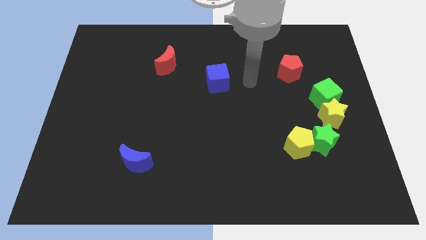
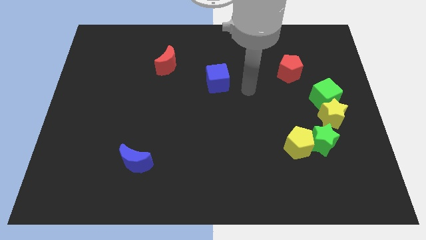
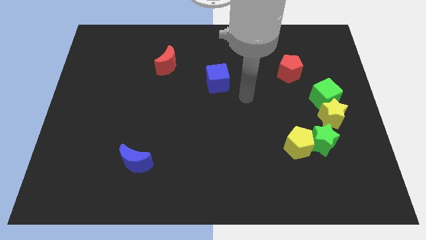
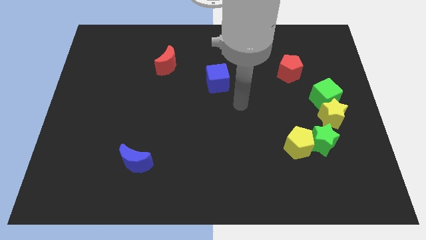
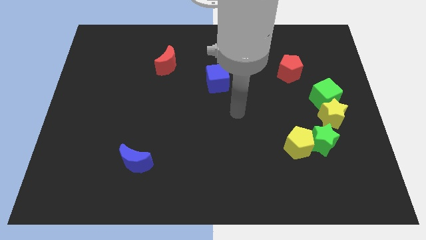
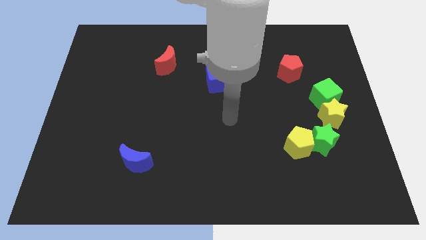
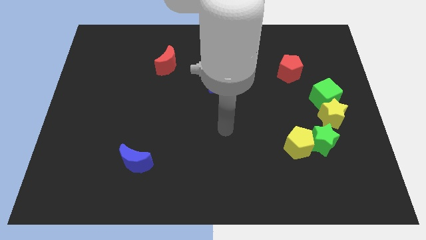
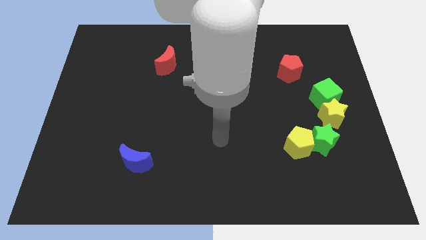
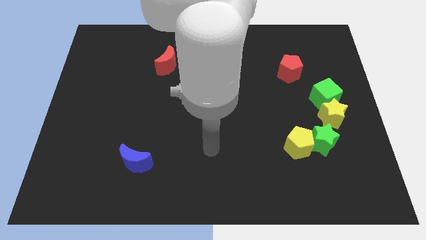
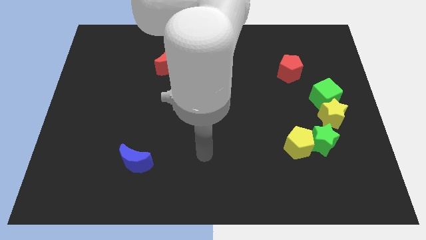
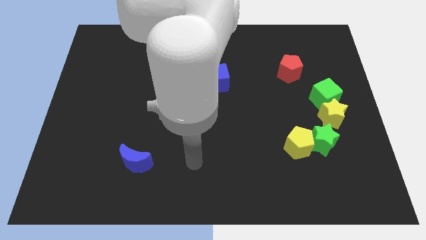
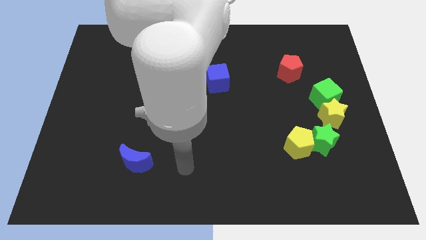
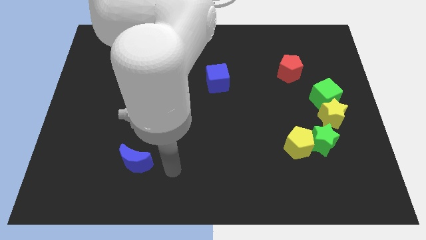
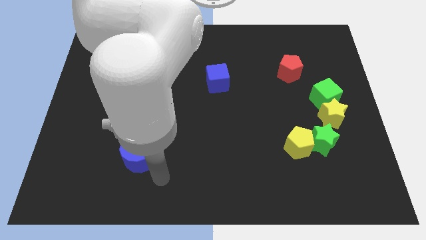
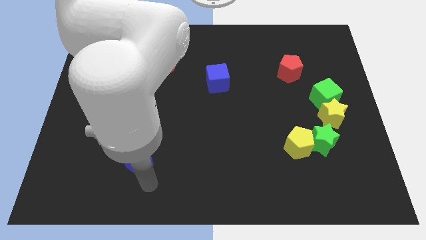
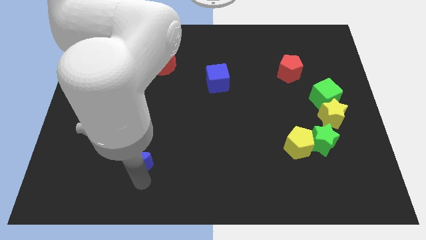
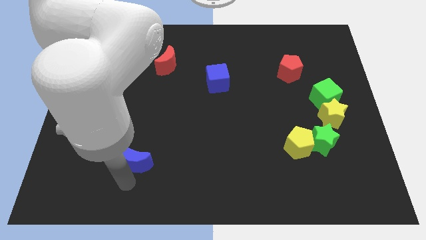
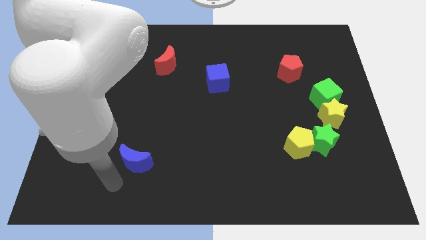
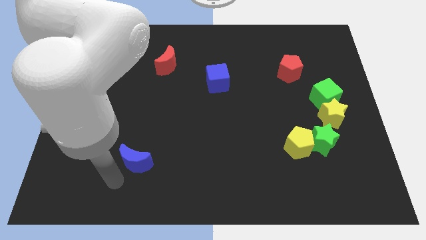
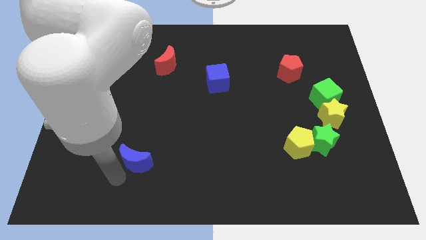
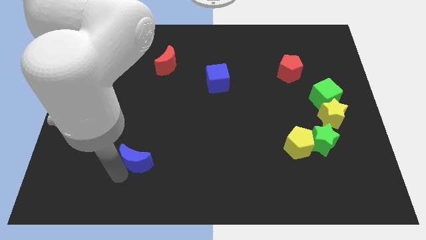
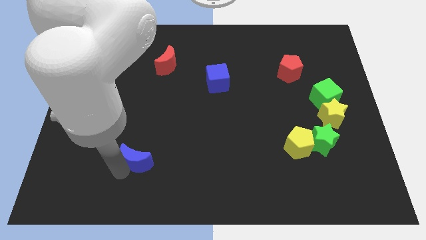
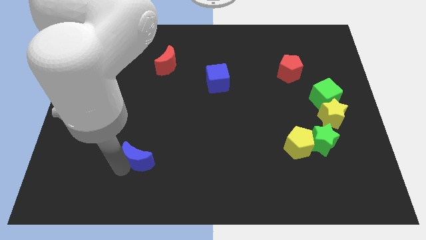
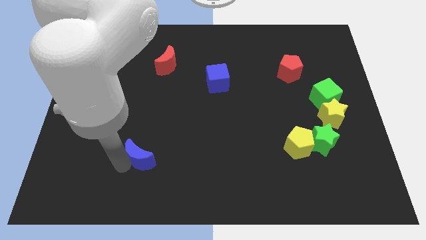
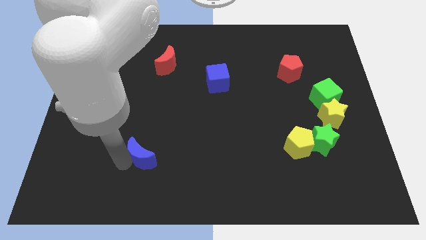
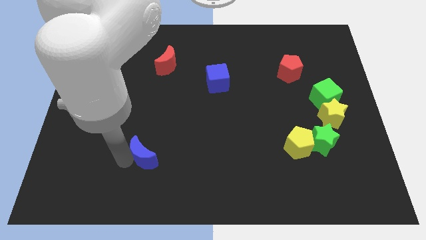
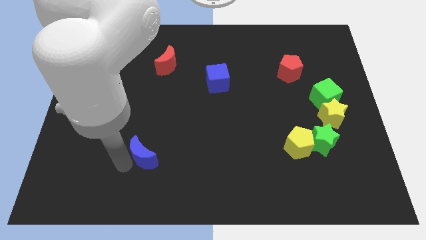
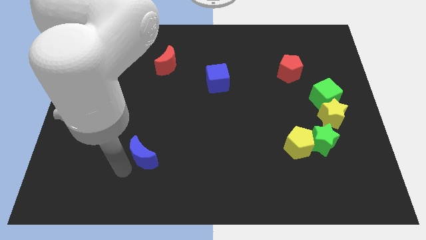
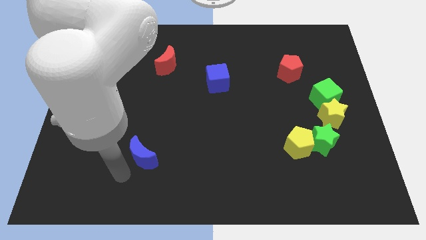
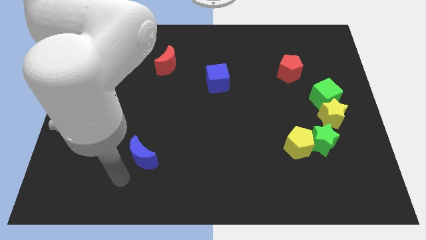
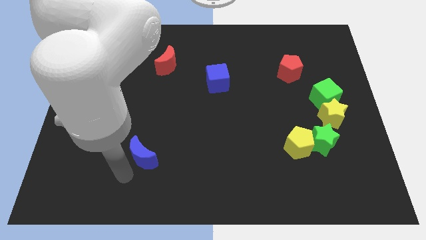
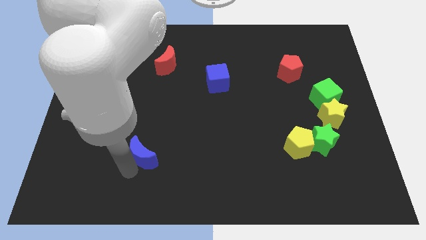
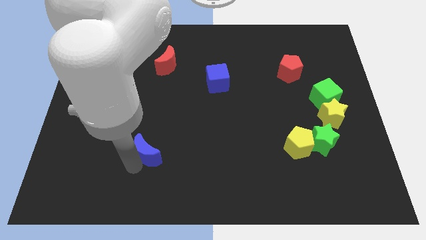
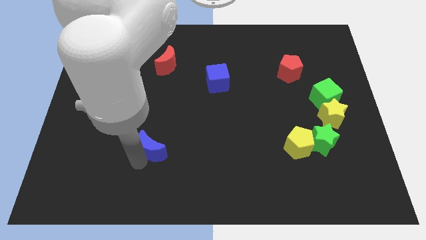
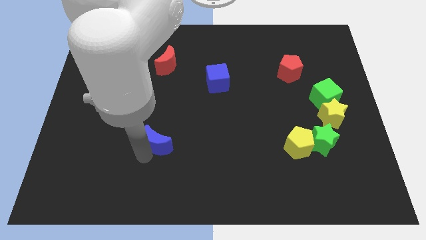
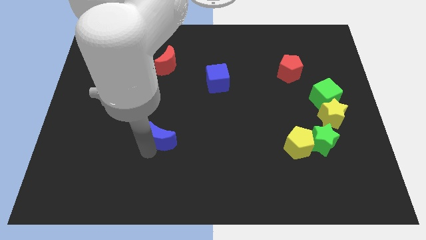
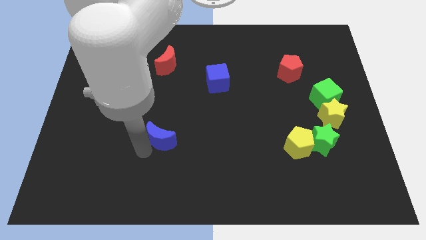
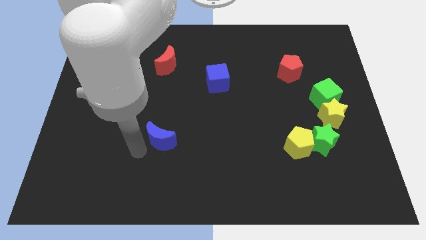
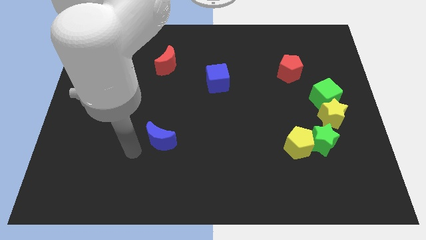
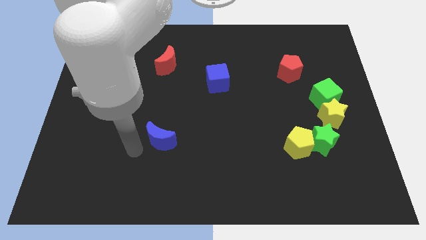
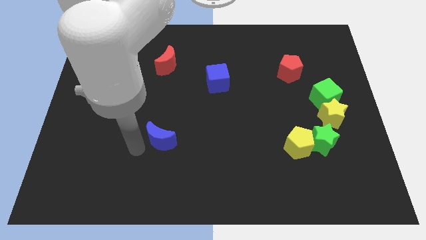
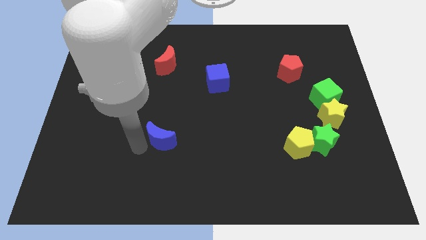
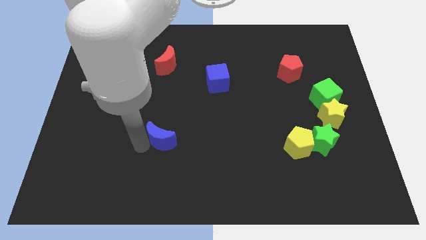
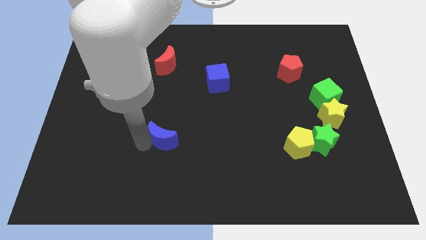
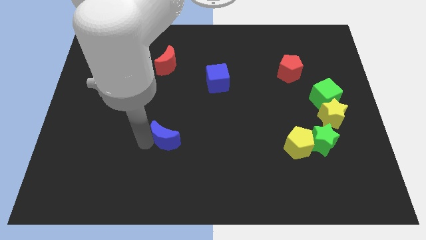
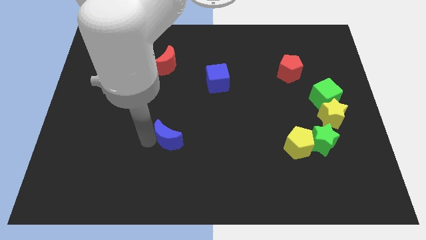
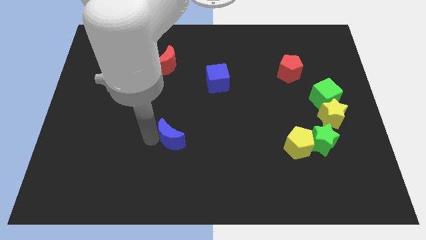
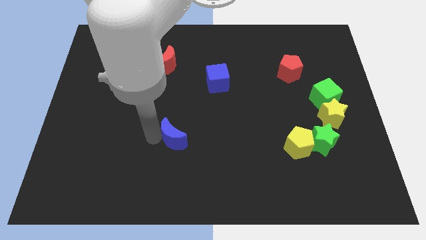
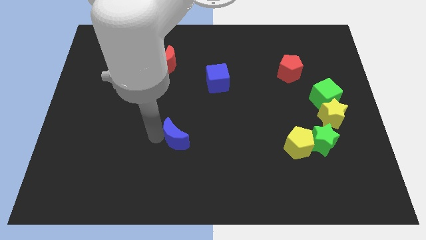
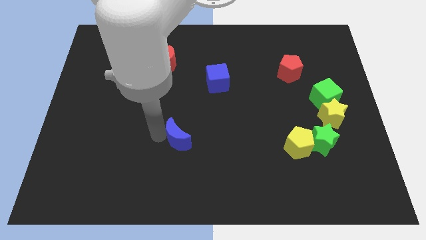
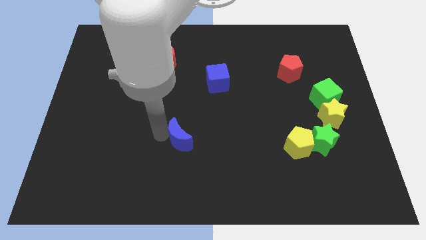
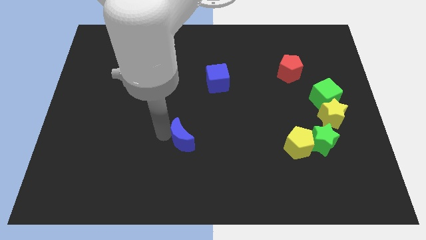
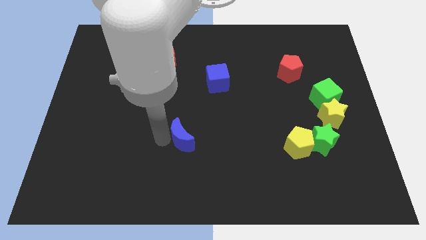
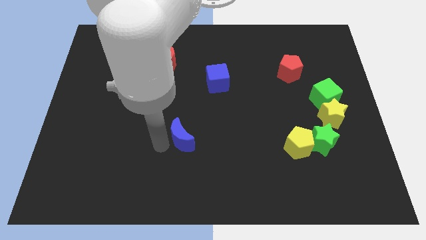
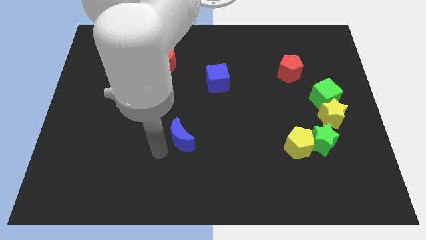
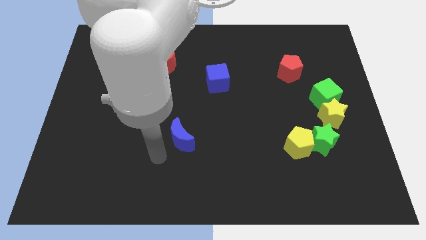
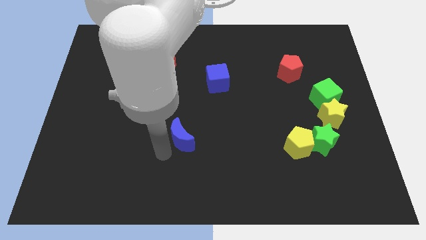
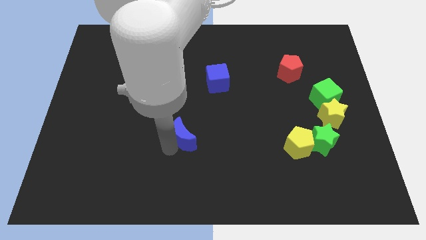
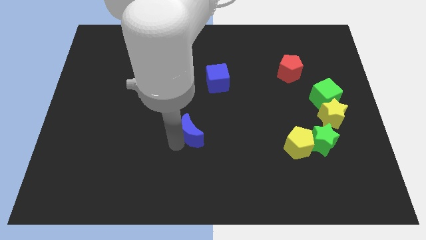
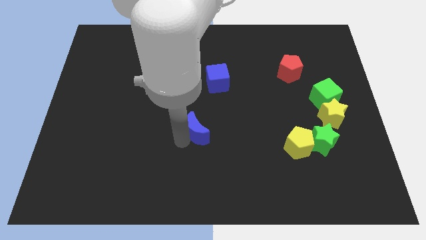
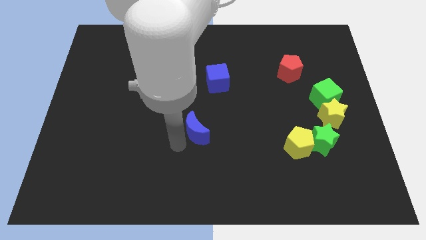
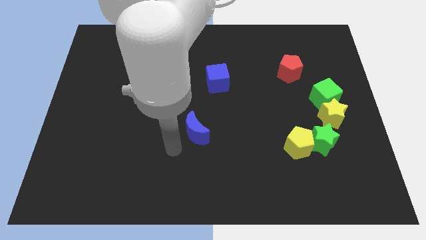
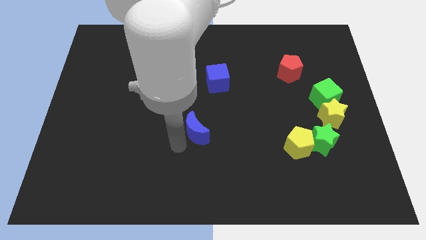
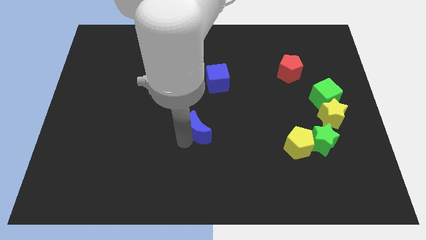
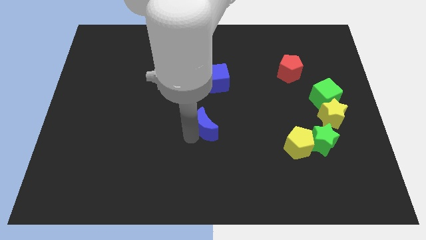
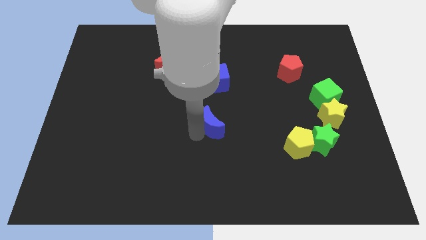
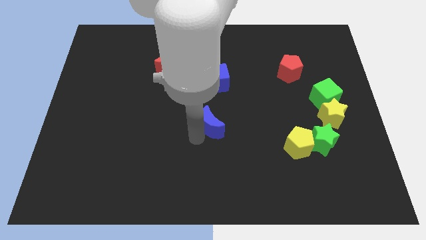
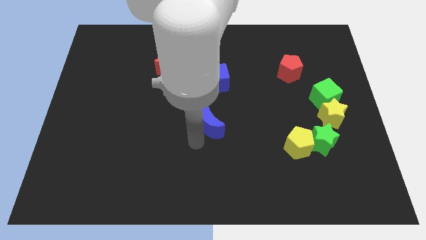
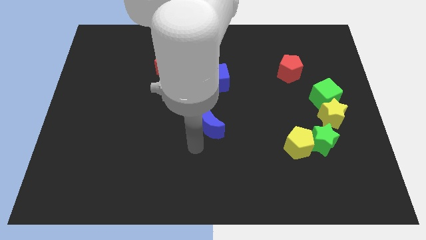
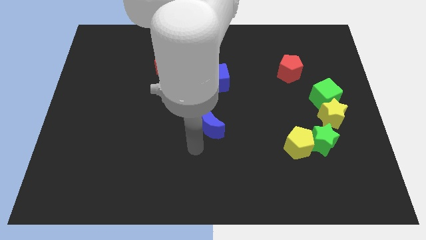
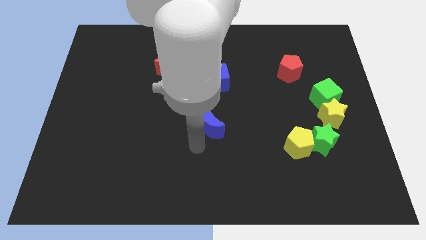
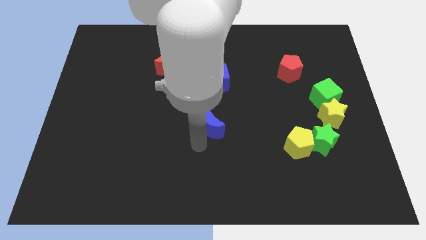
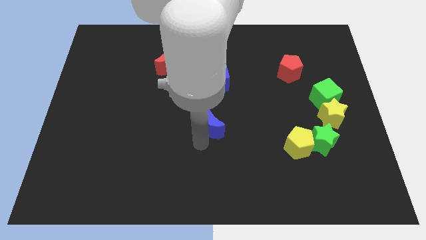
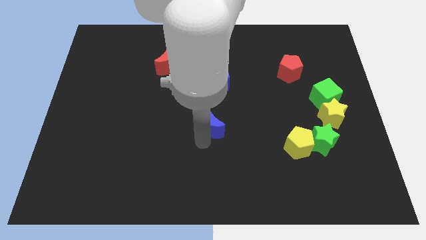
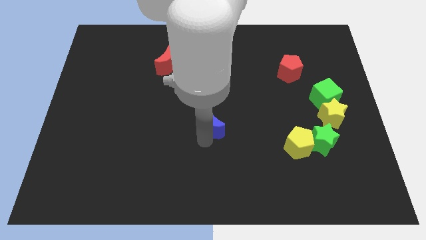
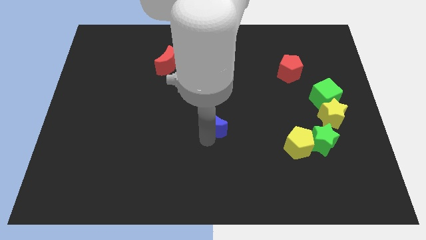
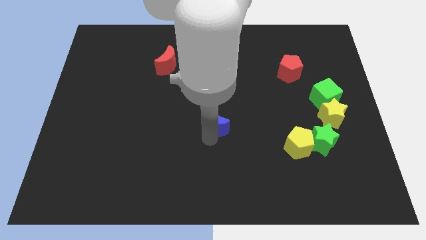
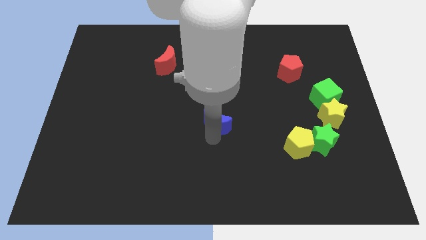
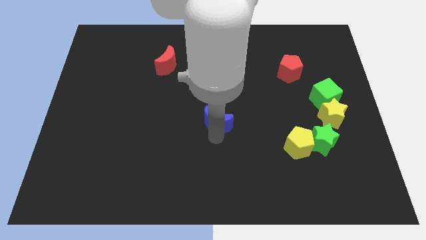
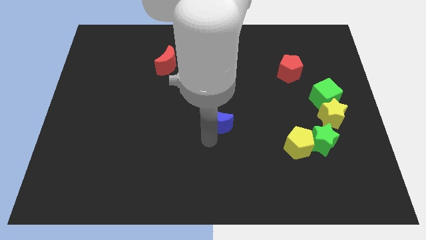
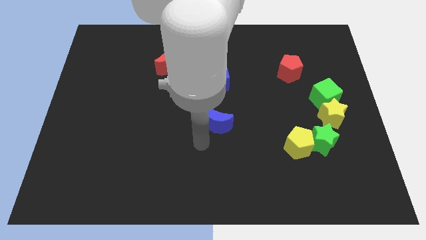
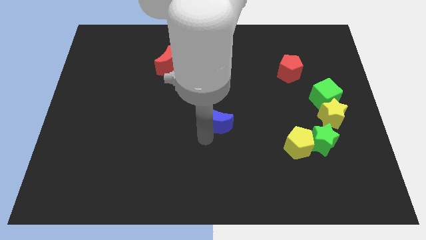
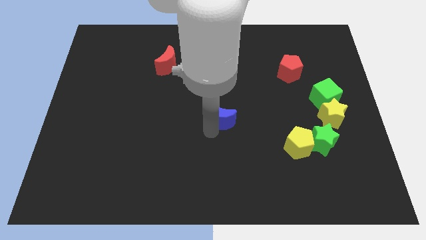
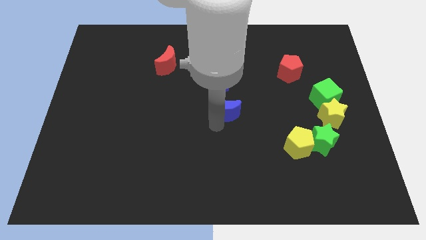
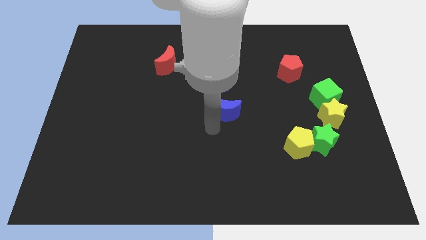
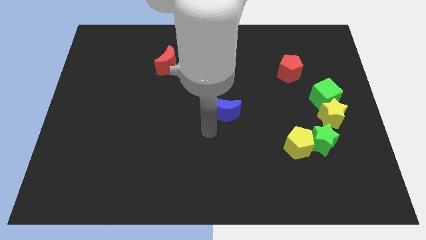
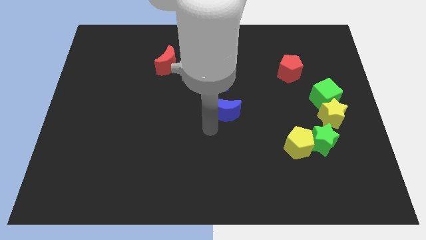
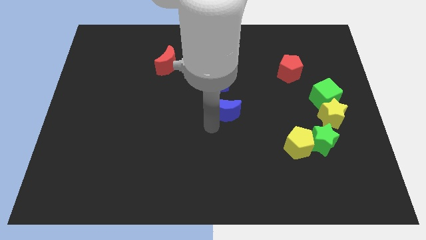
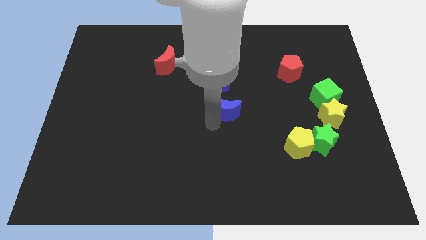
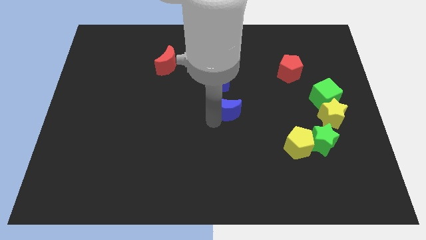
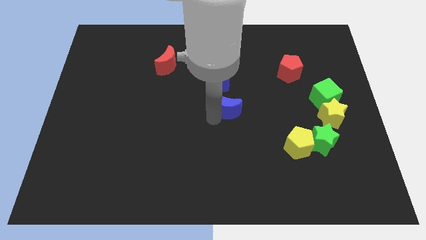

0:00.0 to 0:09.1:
push the blue moon to the bottom right side of the blue cube
